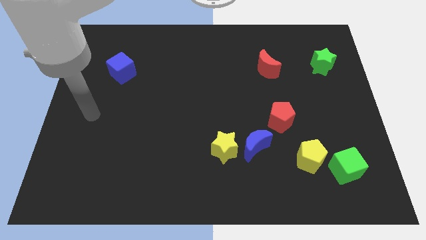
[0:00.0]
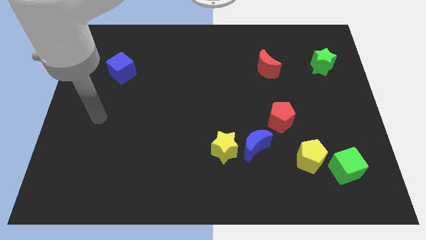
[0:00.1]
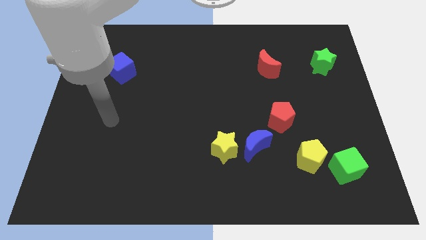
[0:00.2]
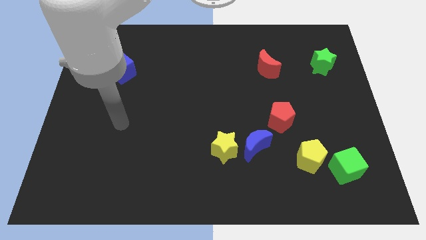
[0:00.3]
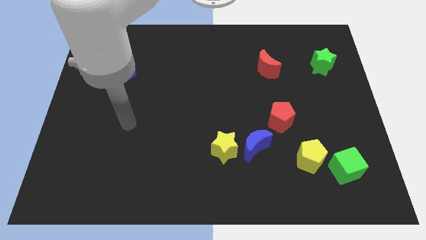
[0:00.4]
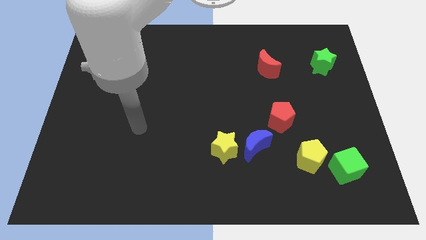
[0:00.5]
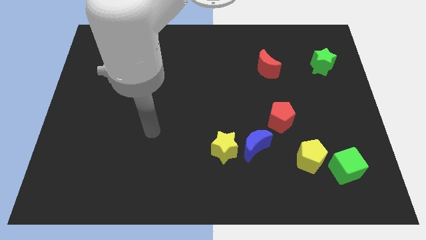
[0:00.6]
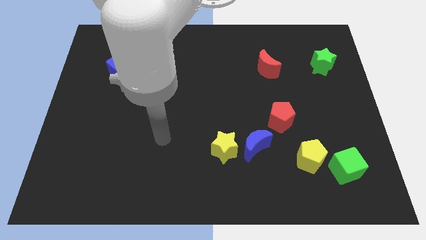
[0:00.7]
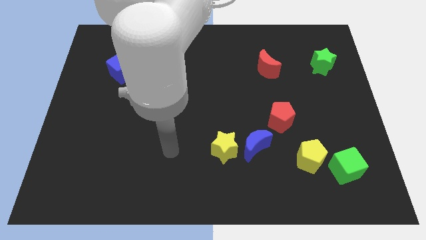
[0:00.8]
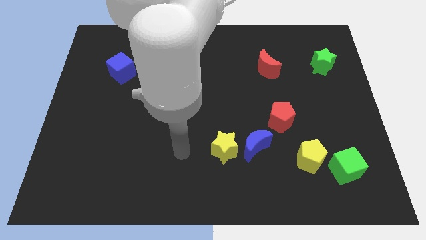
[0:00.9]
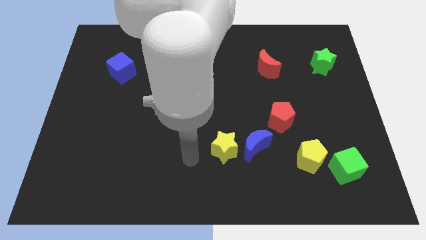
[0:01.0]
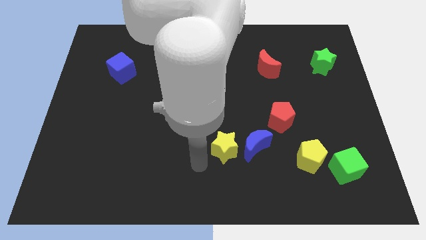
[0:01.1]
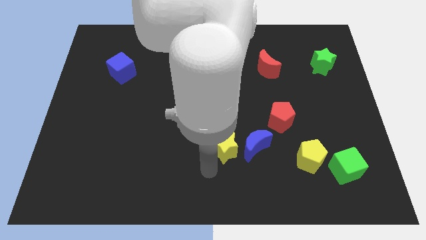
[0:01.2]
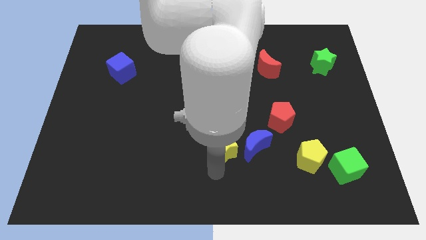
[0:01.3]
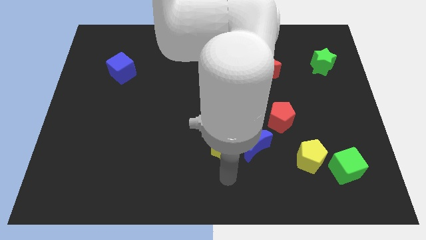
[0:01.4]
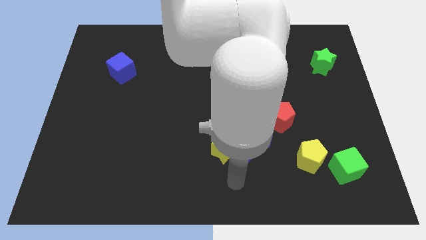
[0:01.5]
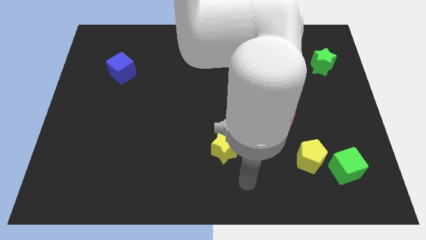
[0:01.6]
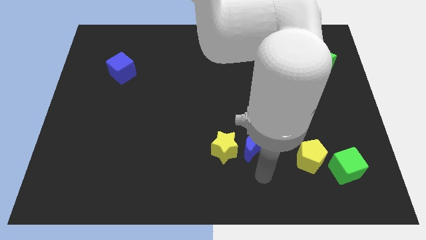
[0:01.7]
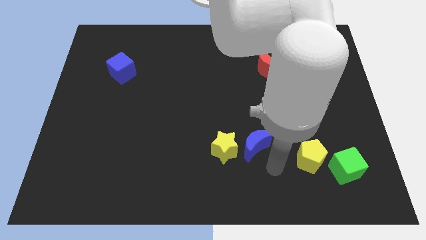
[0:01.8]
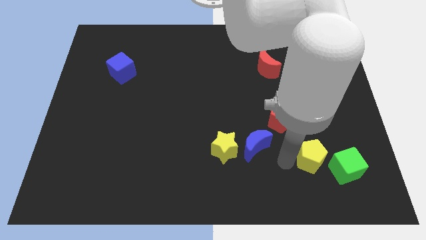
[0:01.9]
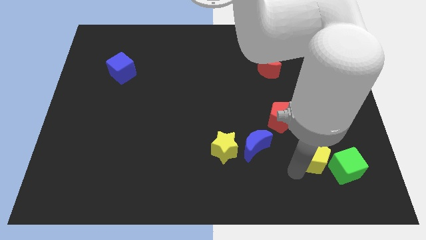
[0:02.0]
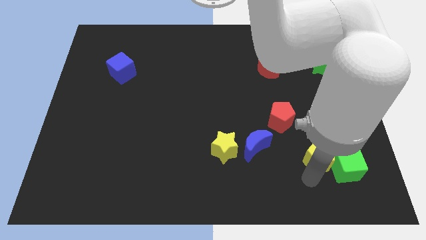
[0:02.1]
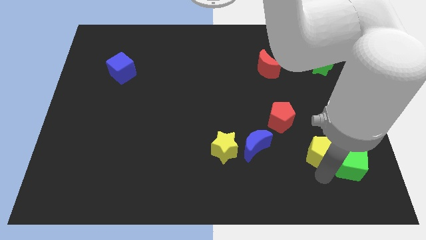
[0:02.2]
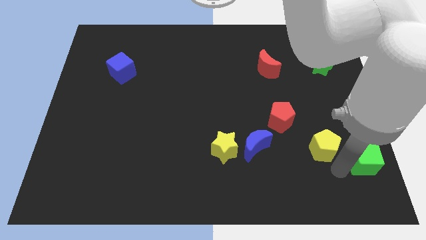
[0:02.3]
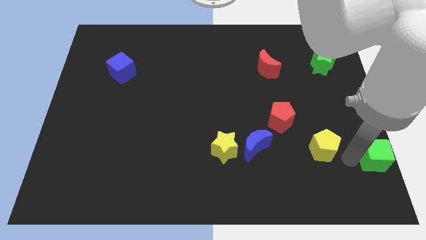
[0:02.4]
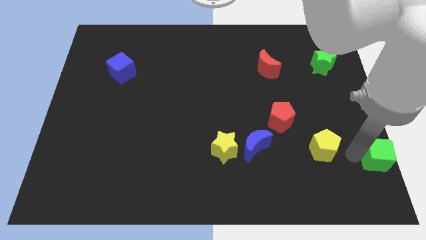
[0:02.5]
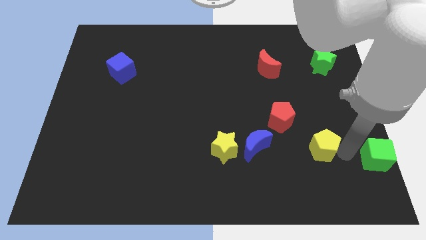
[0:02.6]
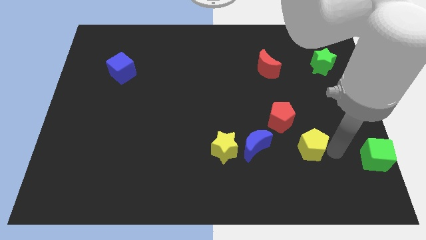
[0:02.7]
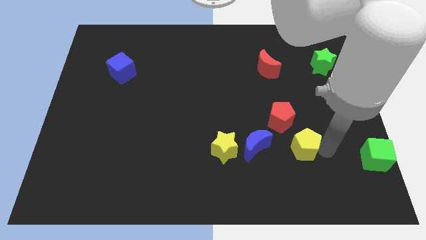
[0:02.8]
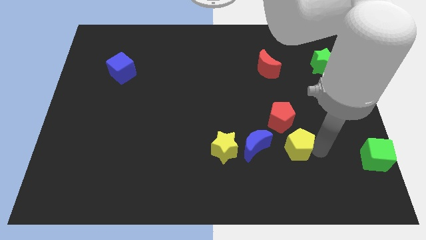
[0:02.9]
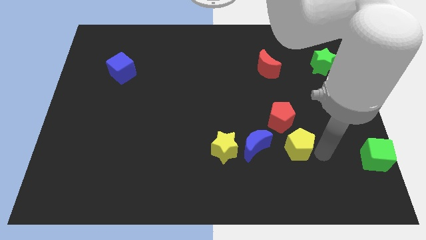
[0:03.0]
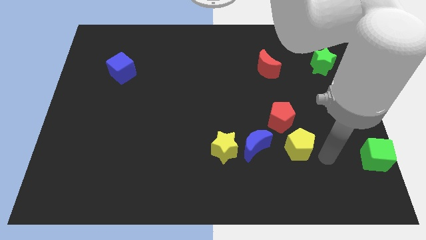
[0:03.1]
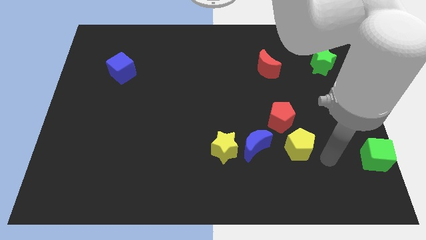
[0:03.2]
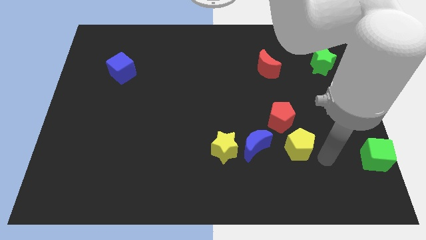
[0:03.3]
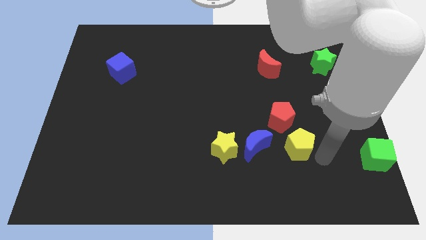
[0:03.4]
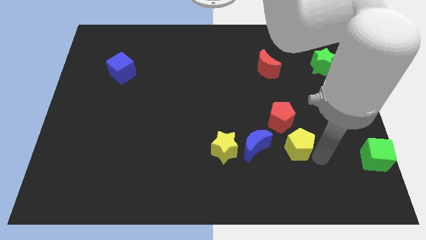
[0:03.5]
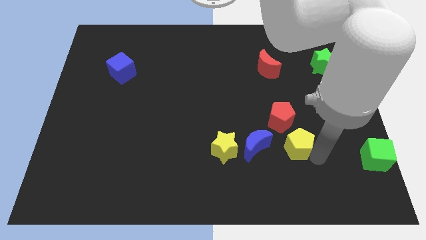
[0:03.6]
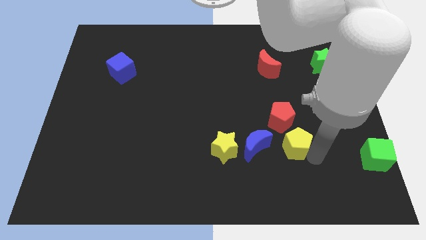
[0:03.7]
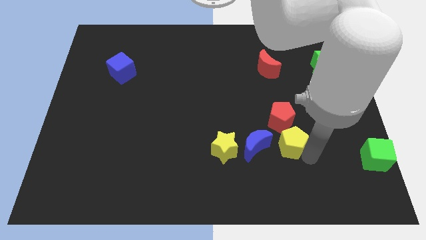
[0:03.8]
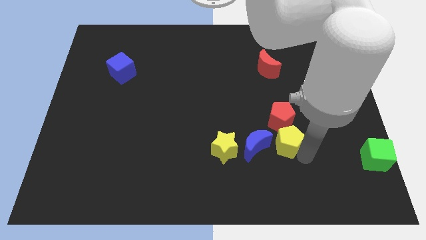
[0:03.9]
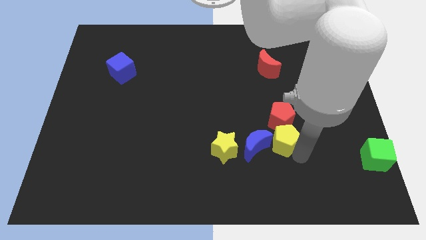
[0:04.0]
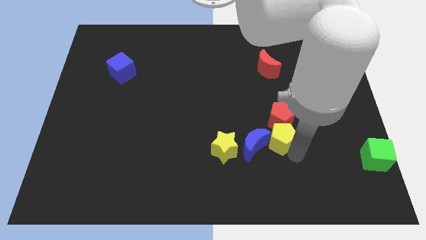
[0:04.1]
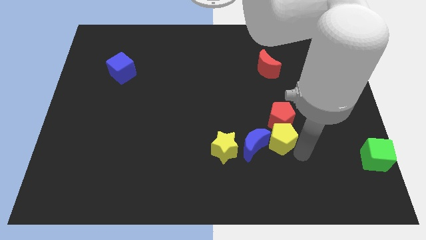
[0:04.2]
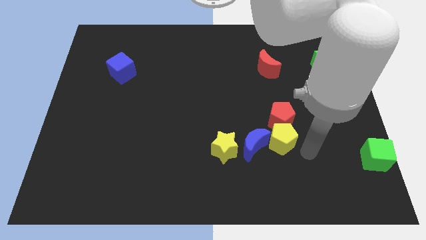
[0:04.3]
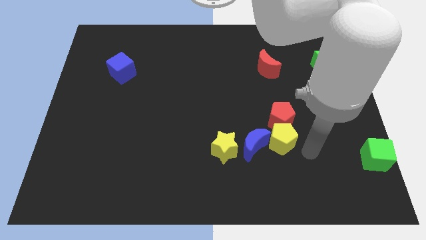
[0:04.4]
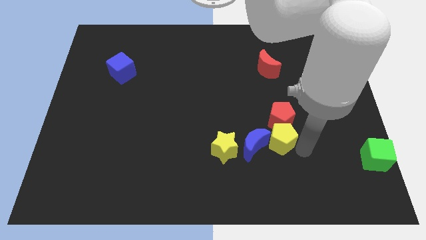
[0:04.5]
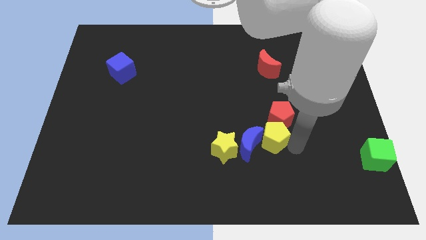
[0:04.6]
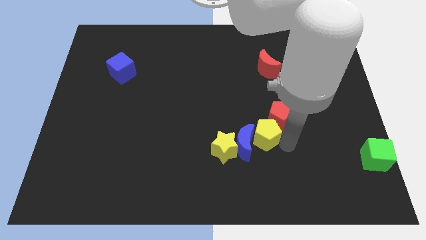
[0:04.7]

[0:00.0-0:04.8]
put the yellow pentagon to the top right of the yellow star

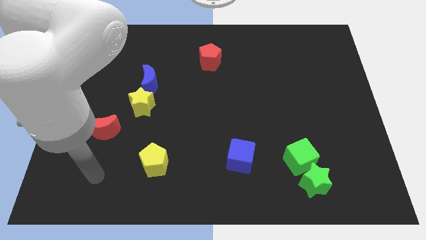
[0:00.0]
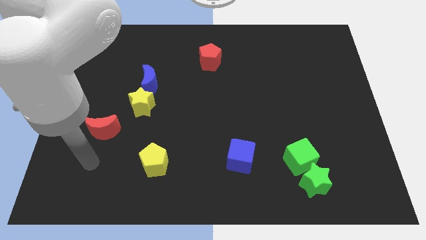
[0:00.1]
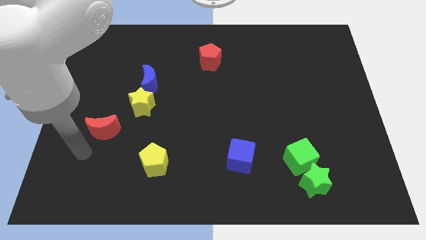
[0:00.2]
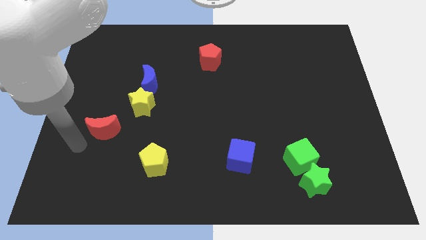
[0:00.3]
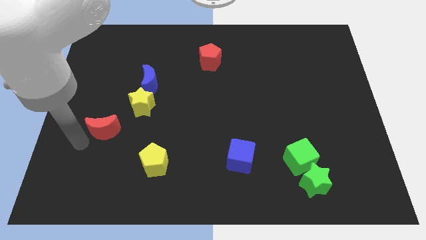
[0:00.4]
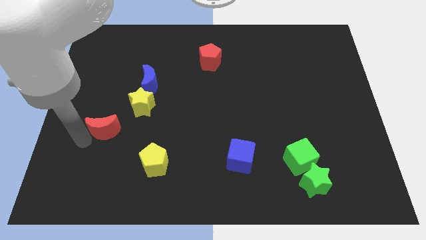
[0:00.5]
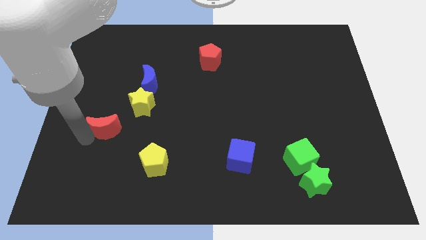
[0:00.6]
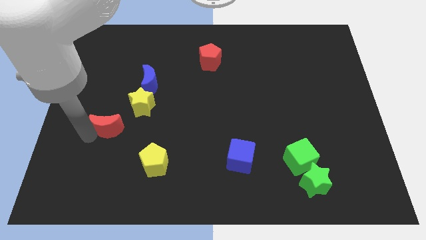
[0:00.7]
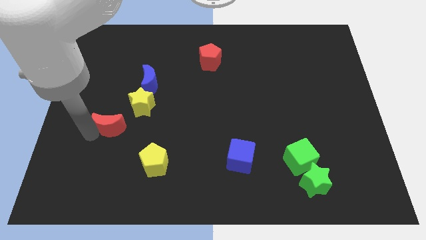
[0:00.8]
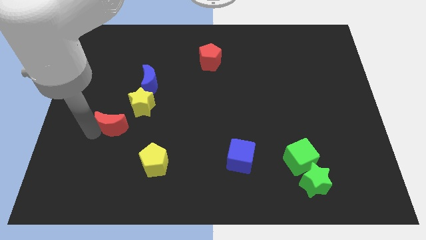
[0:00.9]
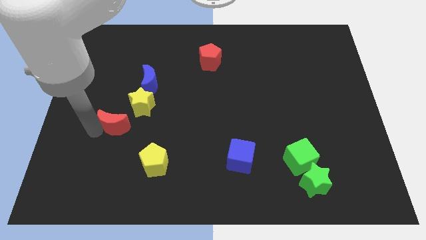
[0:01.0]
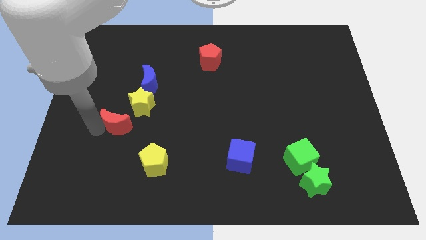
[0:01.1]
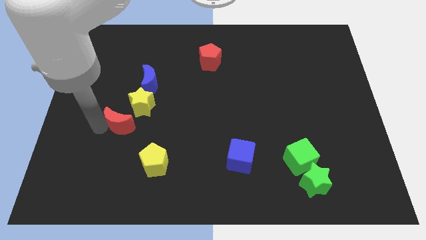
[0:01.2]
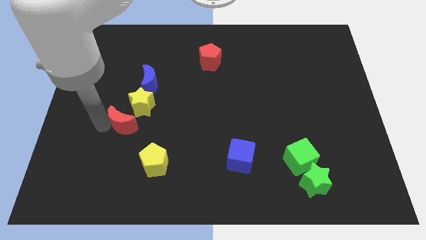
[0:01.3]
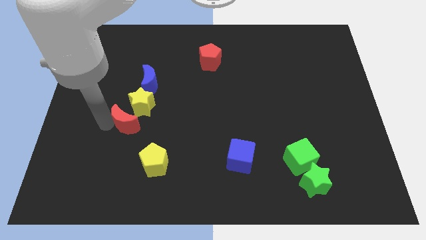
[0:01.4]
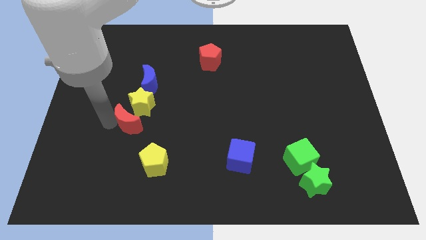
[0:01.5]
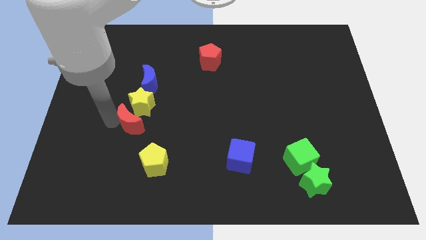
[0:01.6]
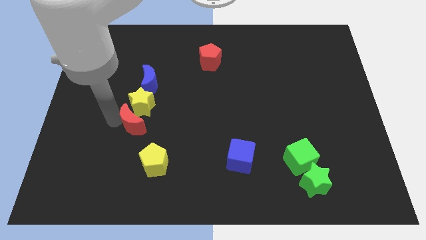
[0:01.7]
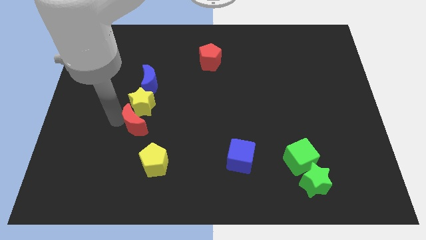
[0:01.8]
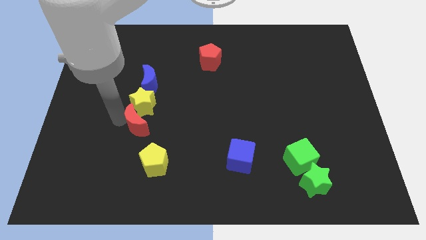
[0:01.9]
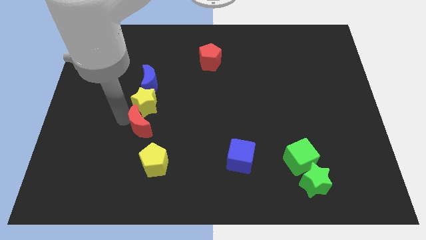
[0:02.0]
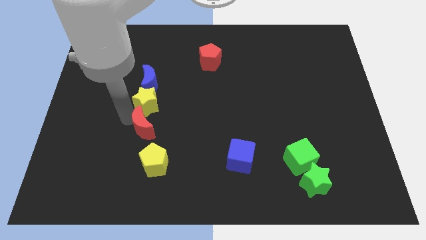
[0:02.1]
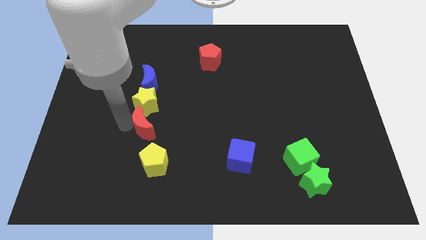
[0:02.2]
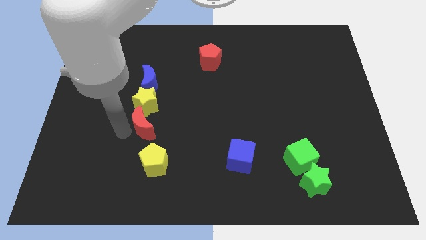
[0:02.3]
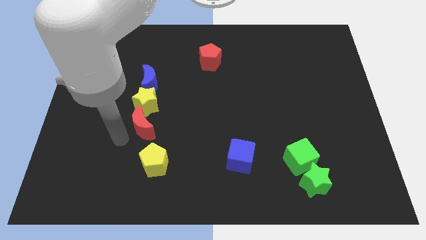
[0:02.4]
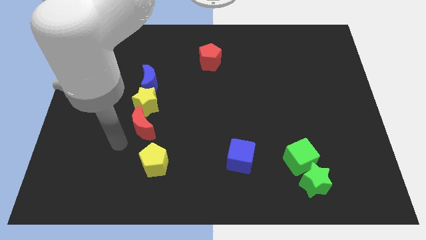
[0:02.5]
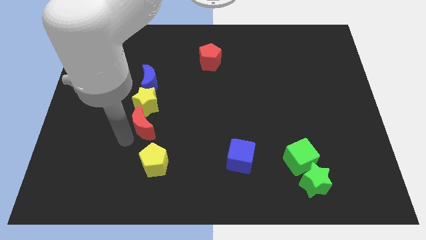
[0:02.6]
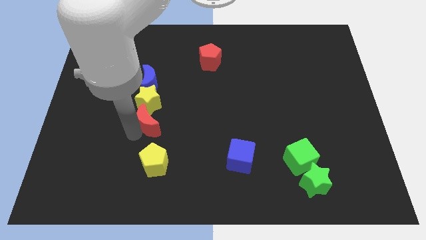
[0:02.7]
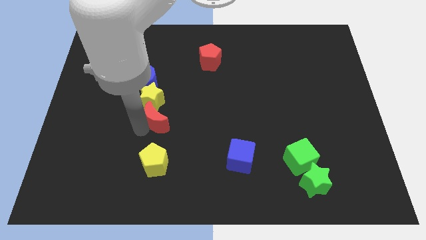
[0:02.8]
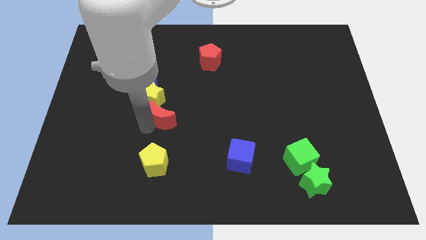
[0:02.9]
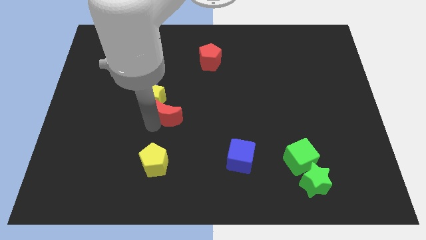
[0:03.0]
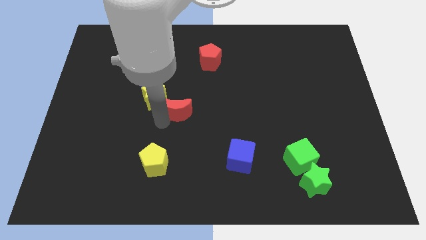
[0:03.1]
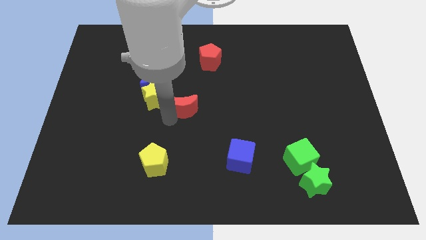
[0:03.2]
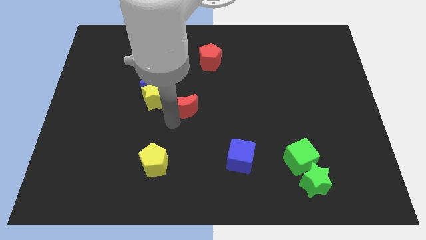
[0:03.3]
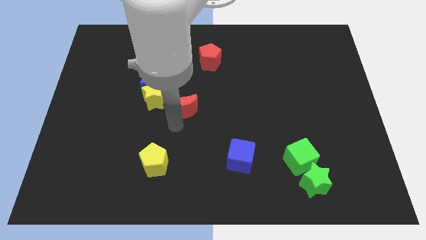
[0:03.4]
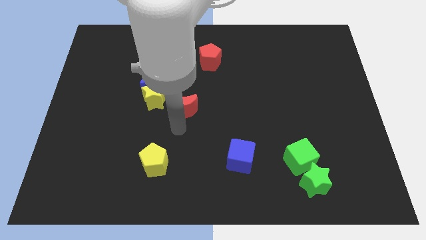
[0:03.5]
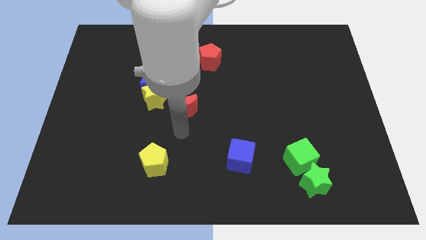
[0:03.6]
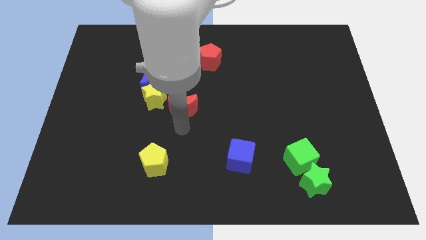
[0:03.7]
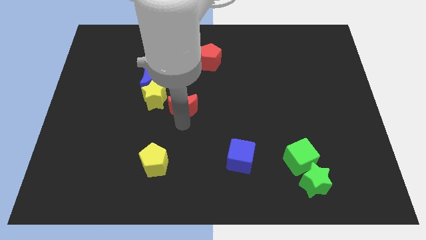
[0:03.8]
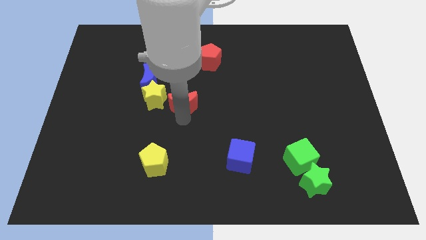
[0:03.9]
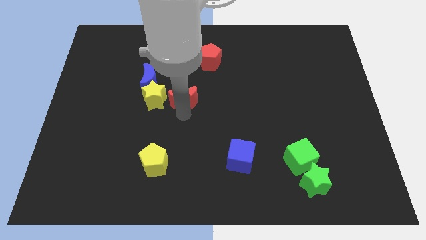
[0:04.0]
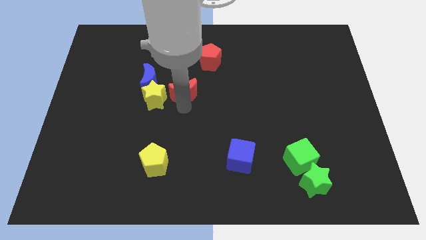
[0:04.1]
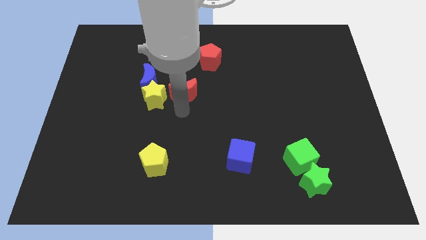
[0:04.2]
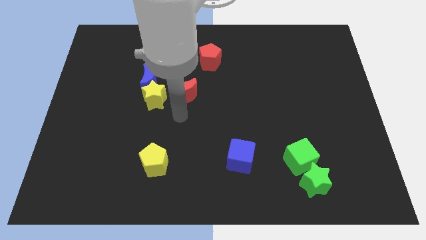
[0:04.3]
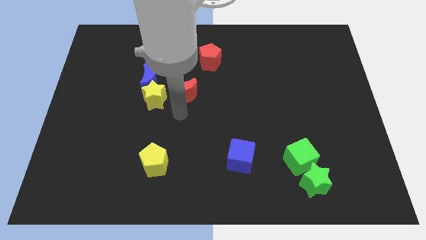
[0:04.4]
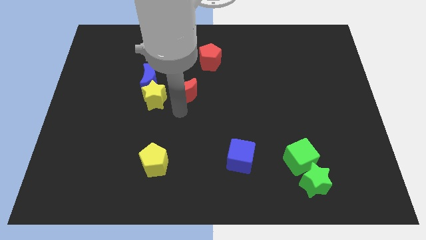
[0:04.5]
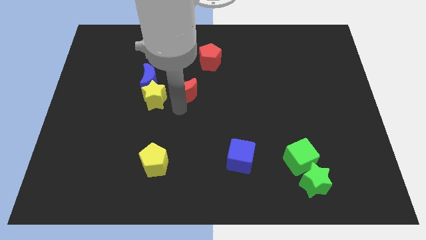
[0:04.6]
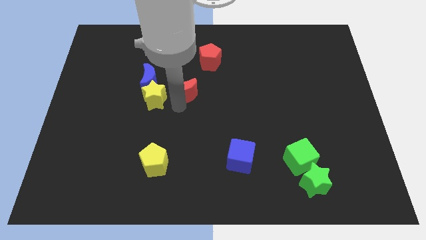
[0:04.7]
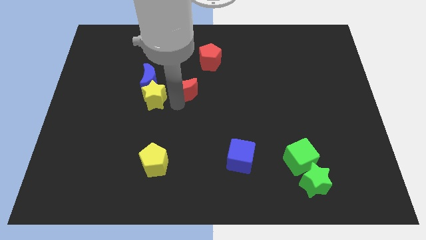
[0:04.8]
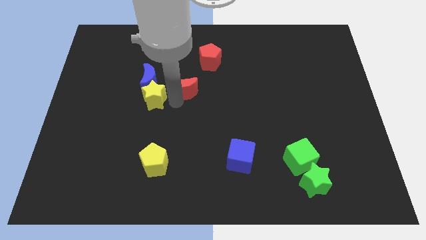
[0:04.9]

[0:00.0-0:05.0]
slide the red moon diagonally down and to the left of the red pentagon
